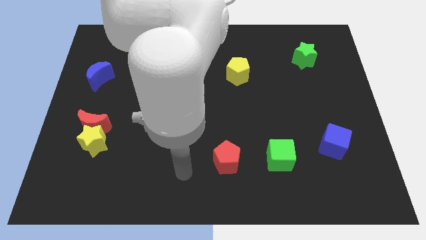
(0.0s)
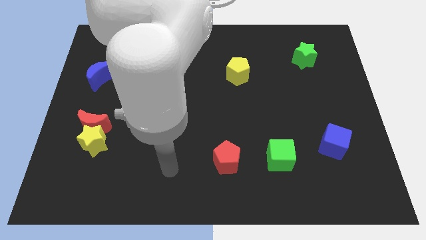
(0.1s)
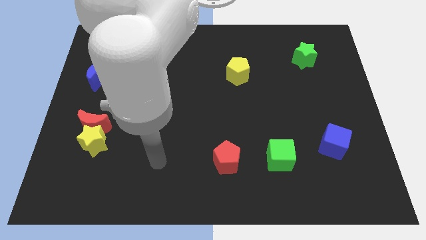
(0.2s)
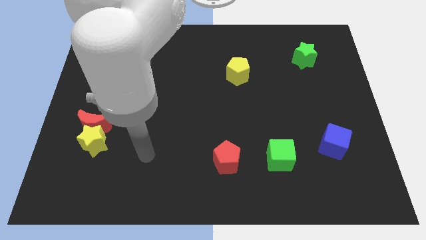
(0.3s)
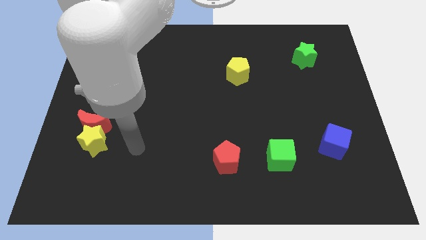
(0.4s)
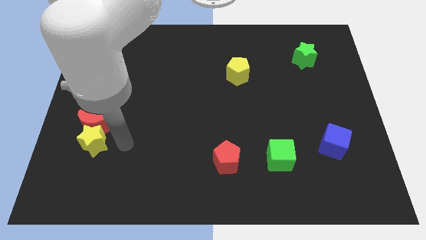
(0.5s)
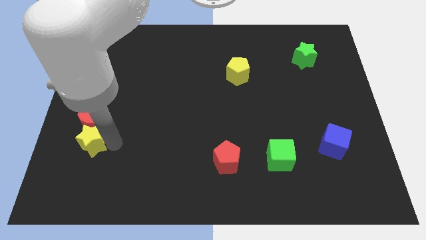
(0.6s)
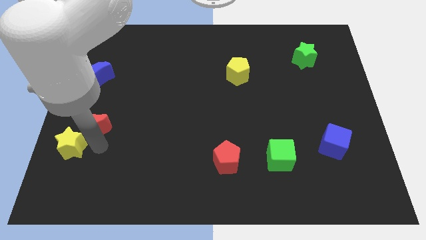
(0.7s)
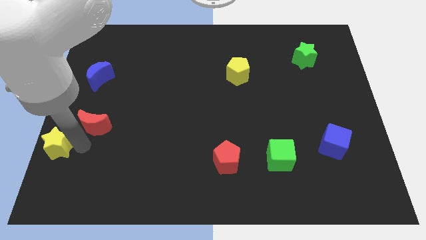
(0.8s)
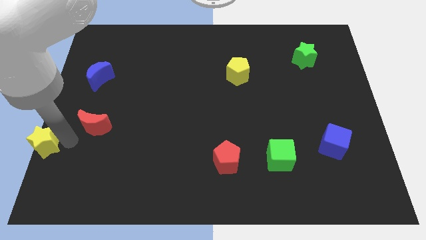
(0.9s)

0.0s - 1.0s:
pull the red moon apart from the yellow star

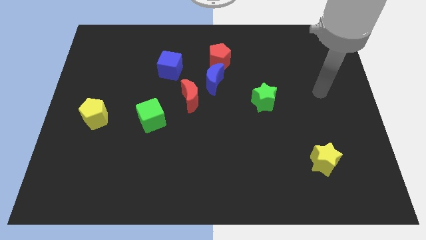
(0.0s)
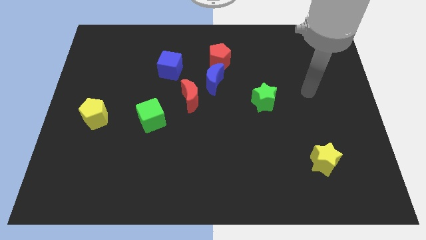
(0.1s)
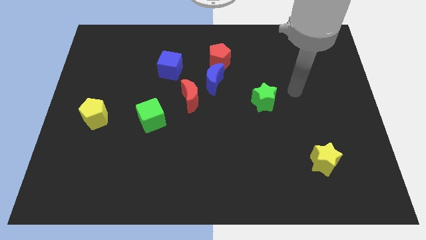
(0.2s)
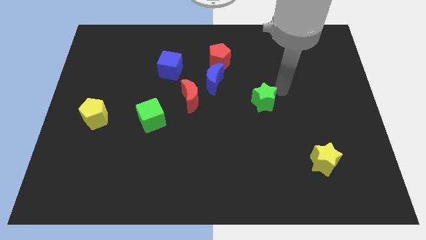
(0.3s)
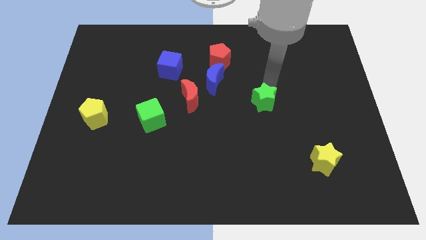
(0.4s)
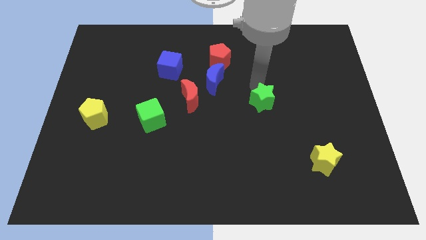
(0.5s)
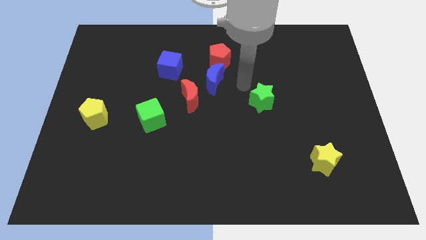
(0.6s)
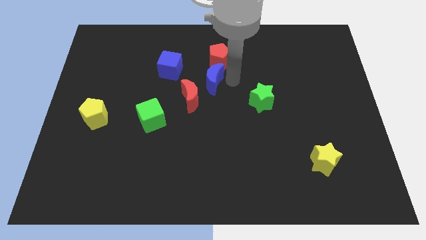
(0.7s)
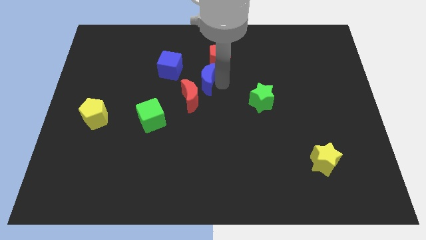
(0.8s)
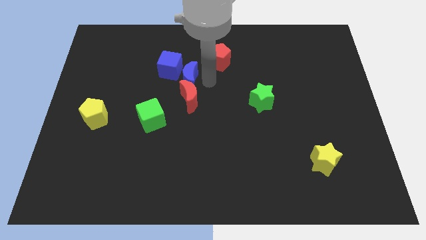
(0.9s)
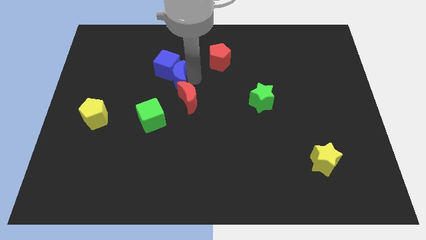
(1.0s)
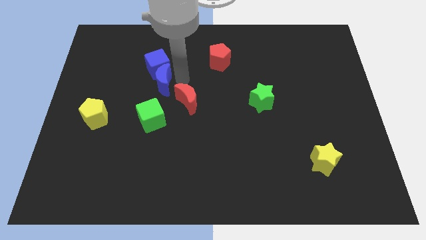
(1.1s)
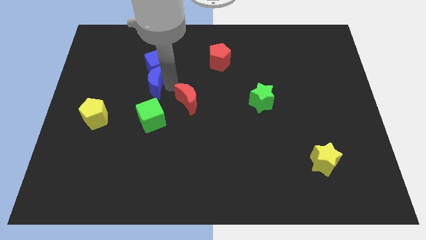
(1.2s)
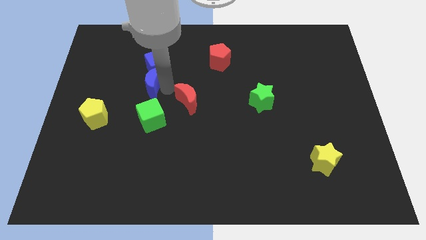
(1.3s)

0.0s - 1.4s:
separate the red moon from the blue moon

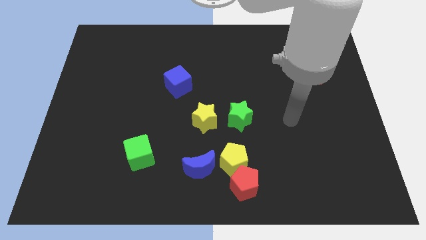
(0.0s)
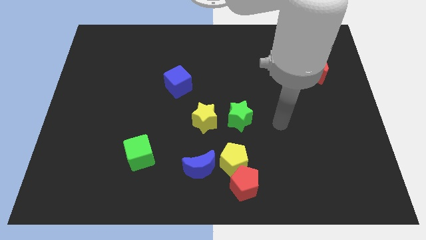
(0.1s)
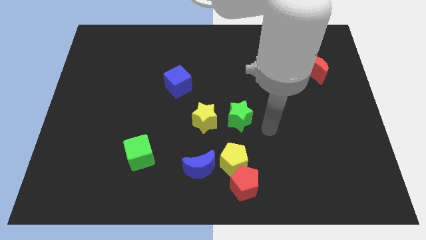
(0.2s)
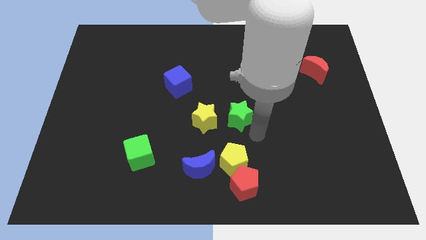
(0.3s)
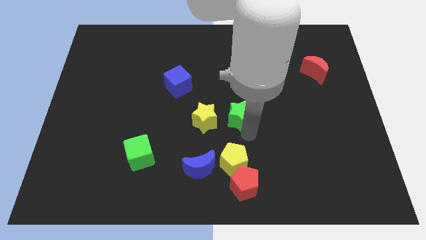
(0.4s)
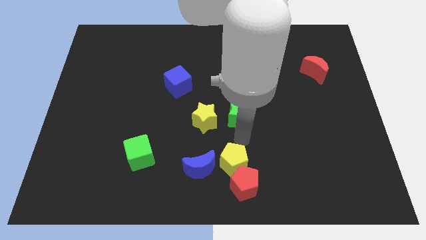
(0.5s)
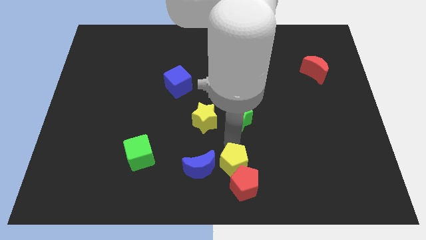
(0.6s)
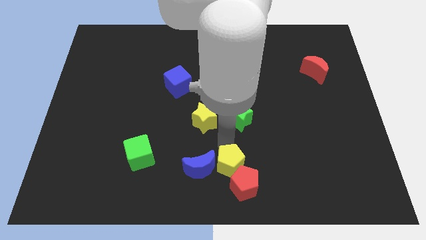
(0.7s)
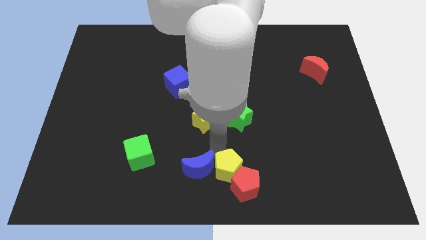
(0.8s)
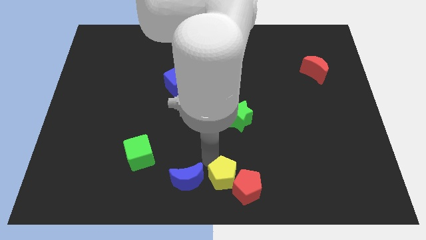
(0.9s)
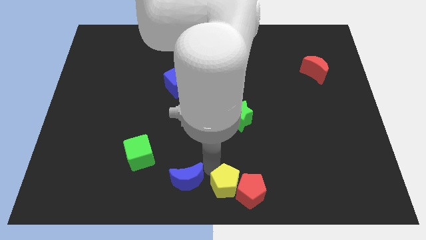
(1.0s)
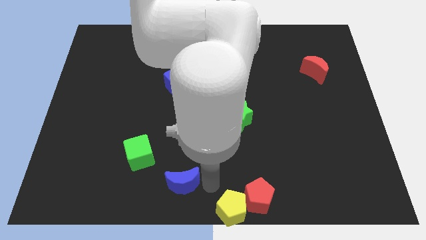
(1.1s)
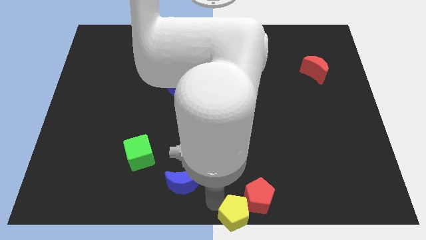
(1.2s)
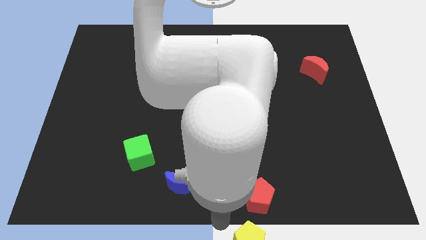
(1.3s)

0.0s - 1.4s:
move the yellow pentagon away from the red pentagon and blue moon

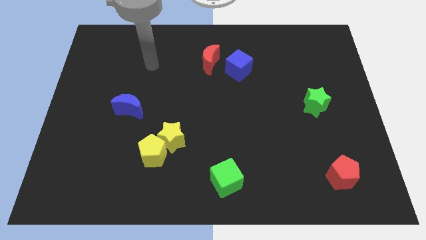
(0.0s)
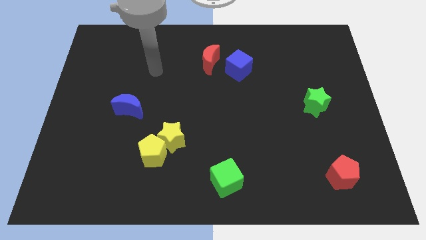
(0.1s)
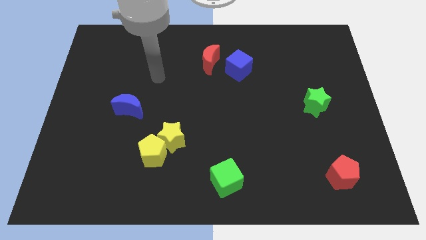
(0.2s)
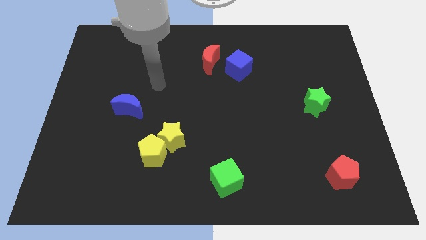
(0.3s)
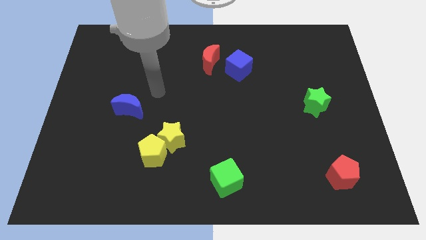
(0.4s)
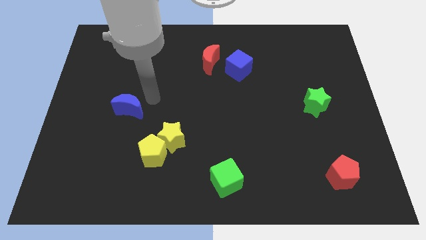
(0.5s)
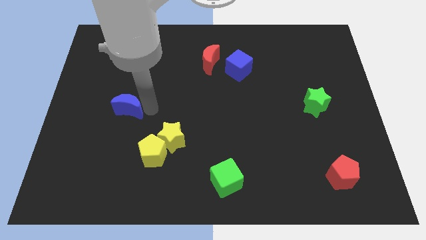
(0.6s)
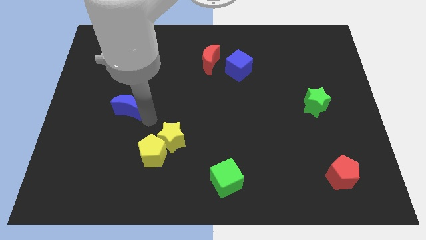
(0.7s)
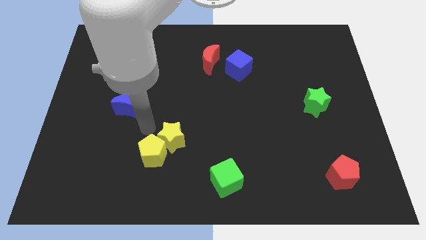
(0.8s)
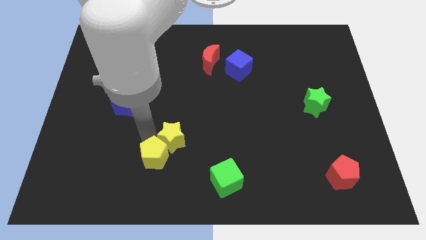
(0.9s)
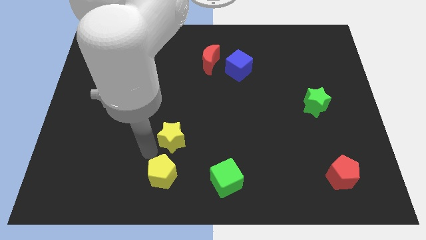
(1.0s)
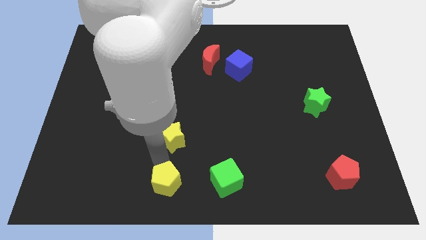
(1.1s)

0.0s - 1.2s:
separate the yellow star from the yellow pentagon

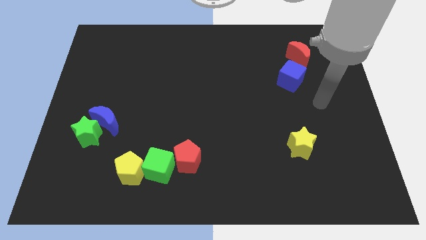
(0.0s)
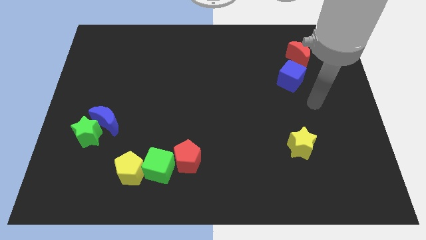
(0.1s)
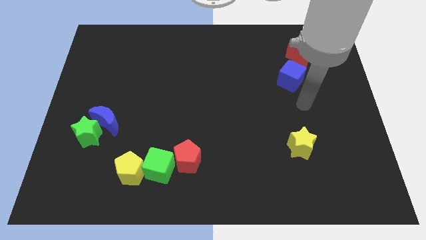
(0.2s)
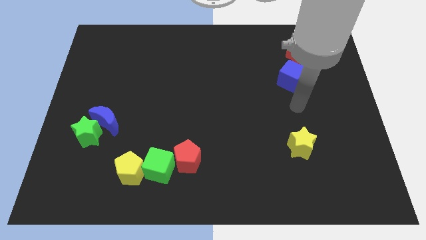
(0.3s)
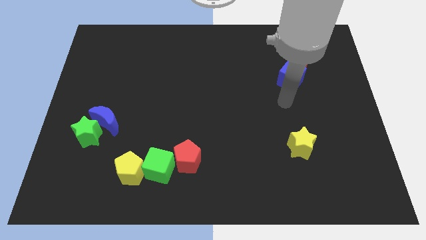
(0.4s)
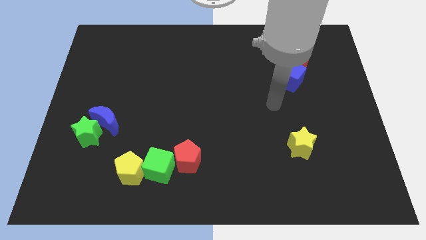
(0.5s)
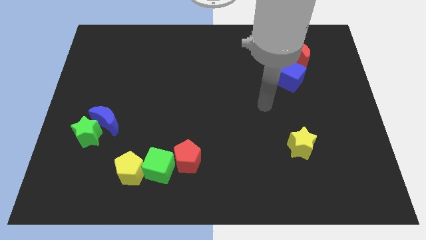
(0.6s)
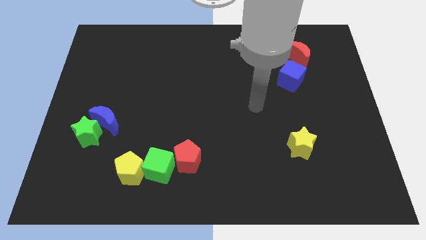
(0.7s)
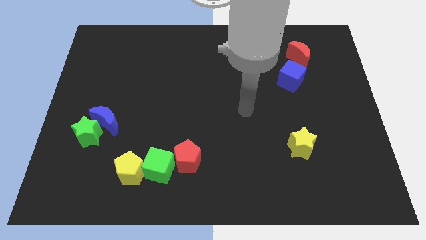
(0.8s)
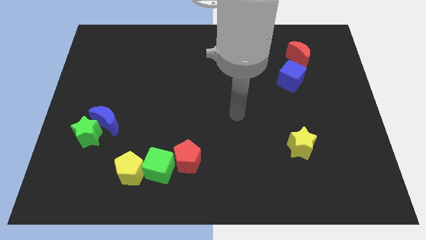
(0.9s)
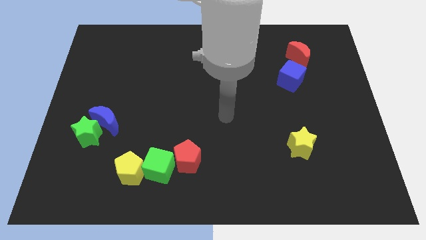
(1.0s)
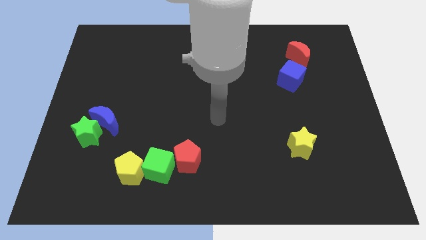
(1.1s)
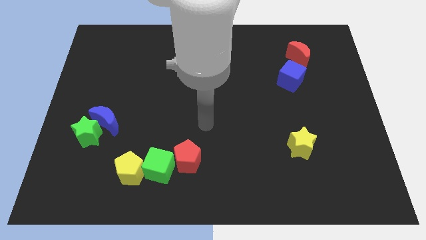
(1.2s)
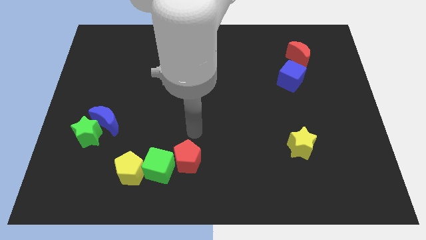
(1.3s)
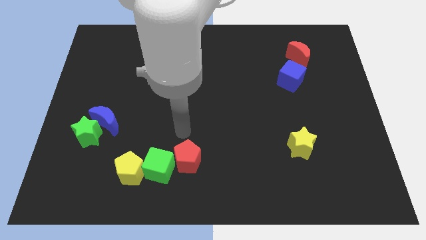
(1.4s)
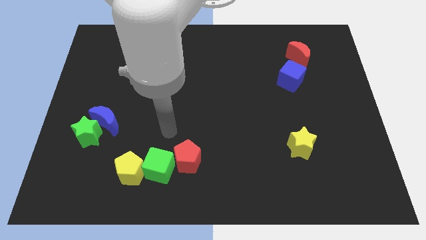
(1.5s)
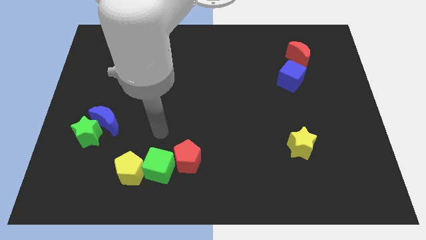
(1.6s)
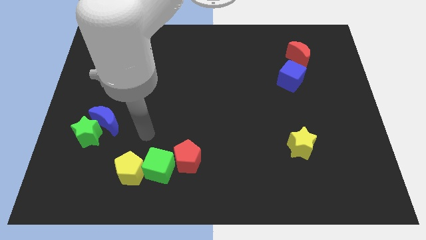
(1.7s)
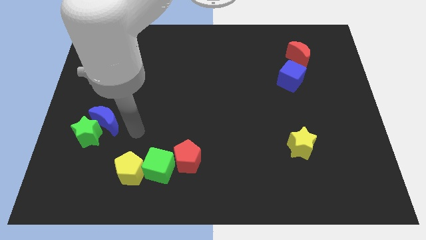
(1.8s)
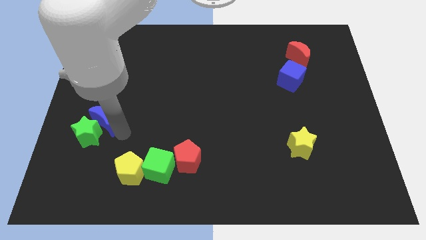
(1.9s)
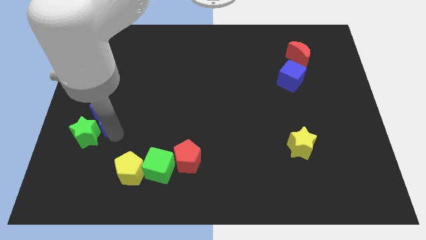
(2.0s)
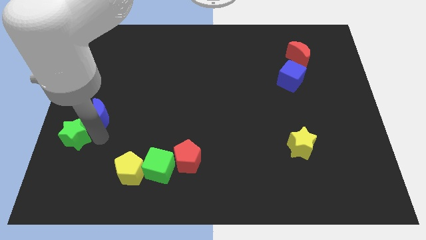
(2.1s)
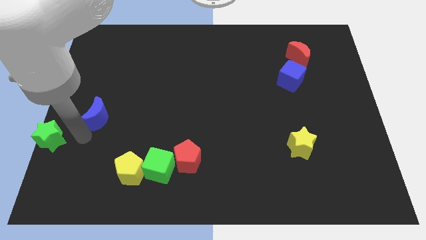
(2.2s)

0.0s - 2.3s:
separate the blue moon from the green star

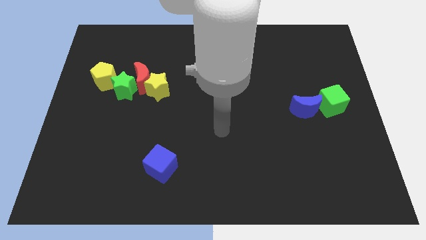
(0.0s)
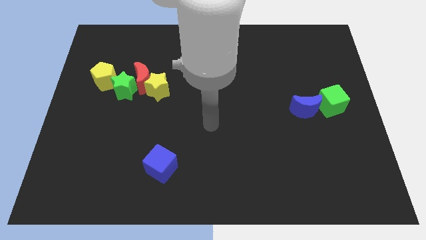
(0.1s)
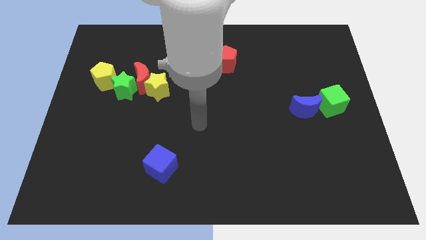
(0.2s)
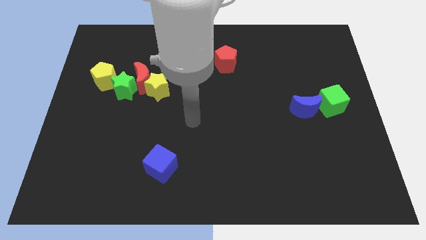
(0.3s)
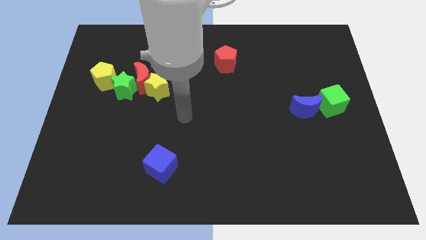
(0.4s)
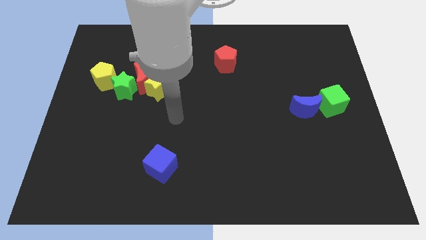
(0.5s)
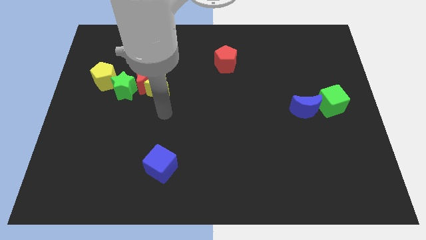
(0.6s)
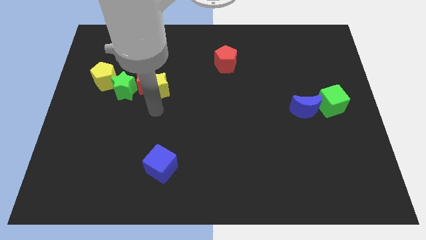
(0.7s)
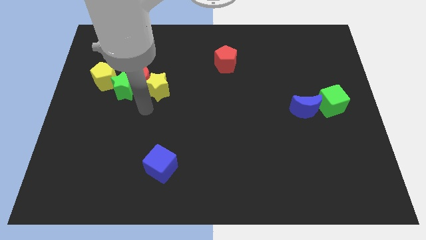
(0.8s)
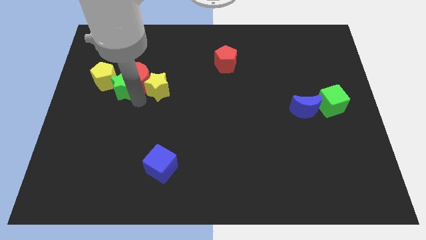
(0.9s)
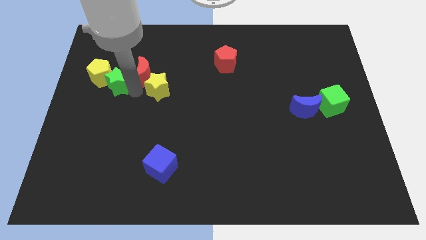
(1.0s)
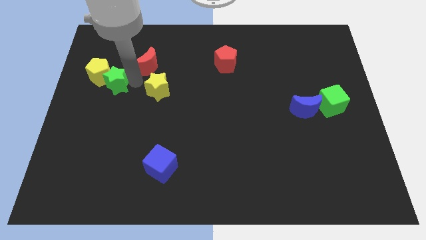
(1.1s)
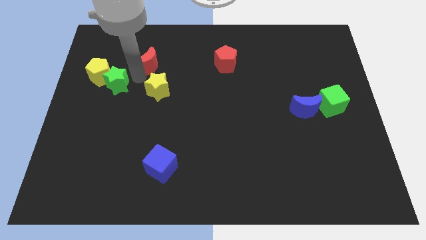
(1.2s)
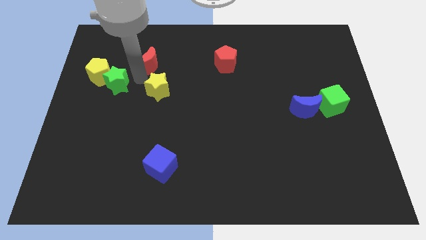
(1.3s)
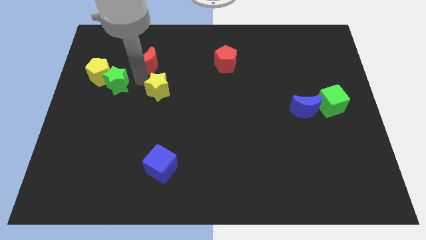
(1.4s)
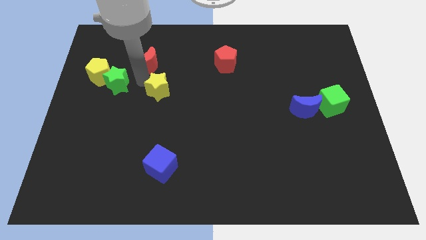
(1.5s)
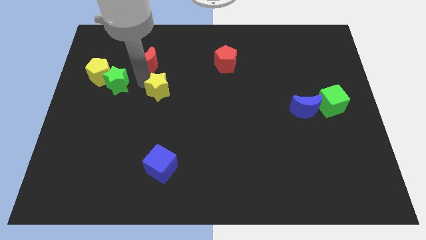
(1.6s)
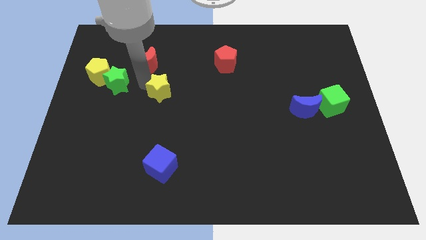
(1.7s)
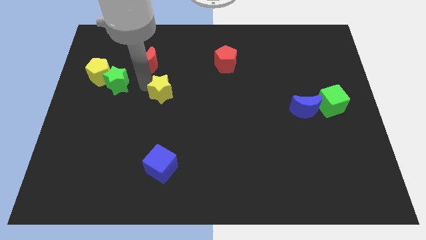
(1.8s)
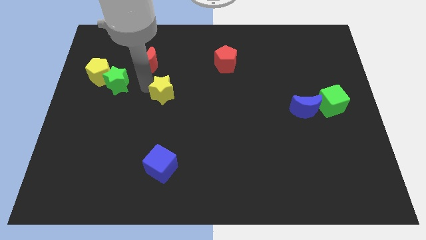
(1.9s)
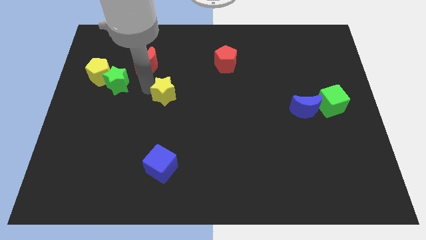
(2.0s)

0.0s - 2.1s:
move the yellow star away from the red moon and green star

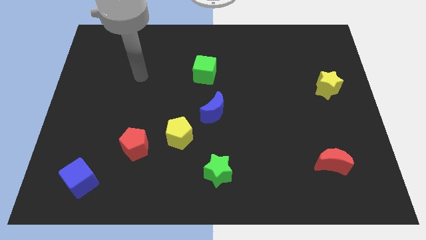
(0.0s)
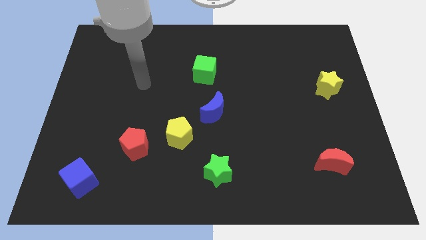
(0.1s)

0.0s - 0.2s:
move the red pentagon away from the yellow pentagon
